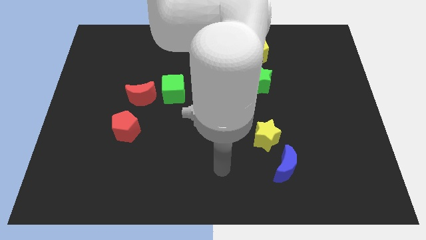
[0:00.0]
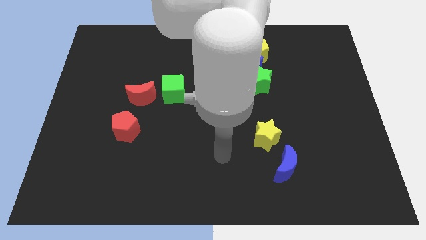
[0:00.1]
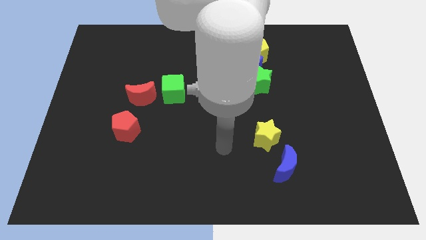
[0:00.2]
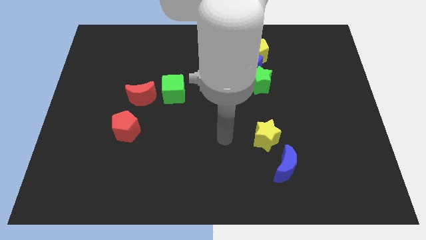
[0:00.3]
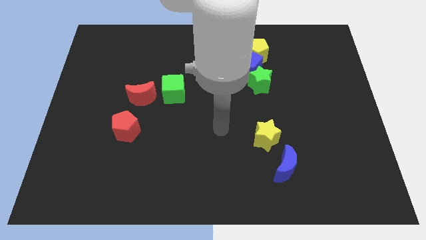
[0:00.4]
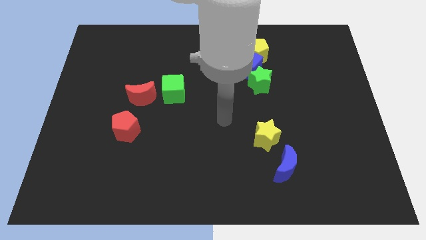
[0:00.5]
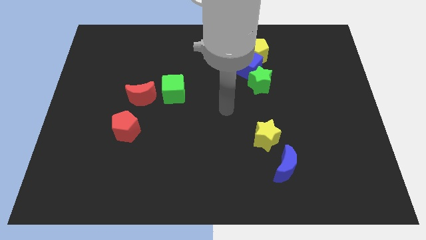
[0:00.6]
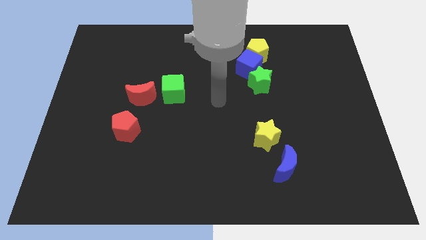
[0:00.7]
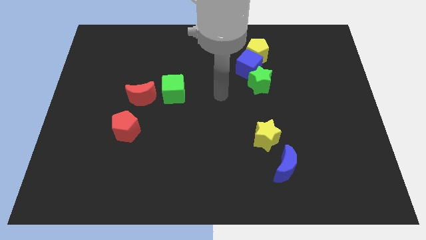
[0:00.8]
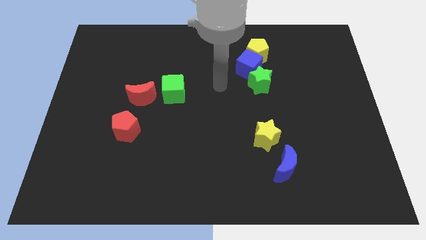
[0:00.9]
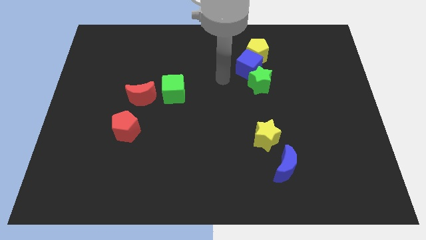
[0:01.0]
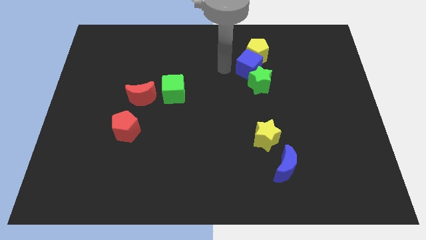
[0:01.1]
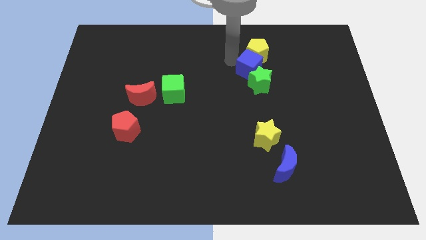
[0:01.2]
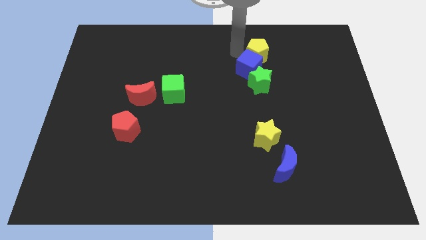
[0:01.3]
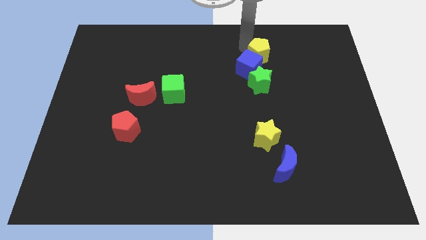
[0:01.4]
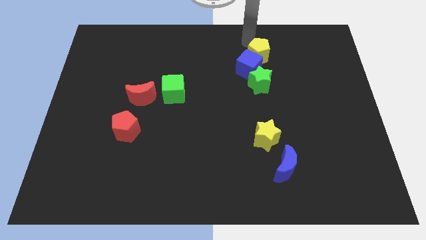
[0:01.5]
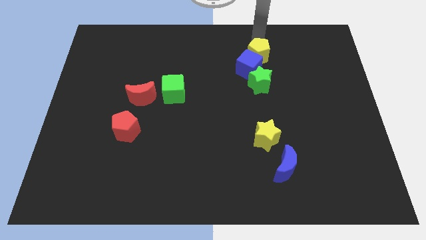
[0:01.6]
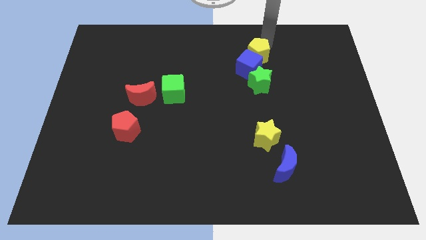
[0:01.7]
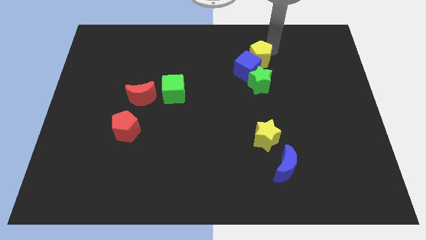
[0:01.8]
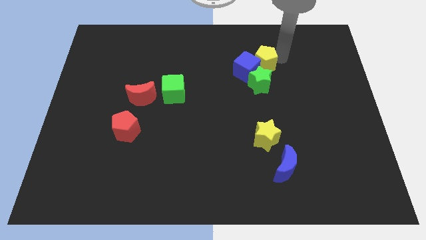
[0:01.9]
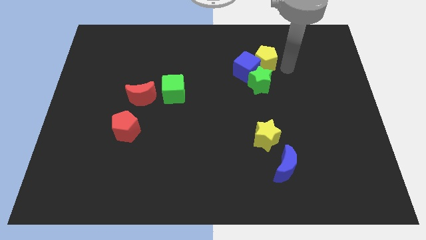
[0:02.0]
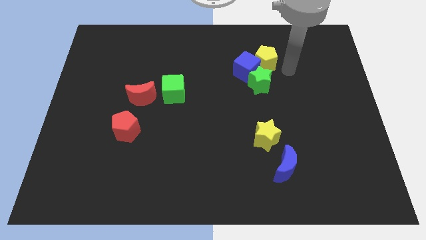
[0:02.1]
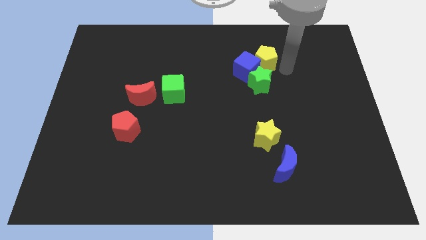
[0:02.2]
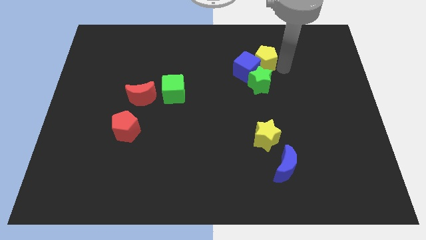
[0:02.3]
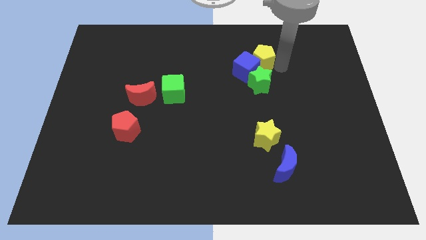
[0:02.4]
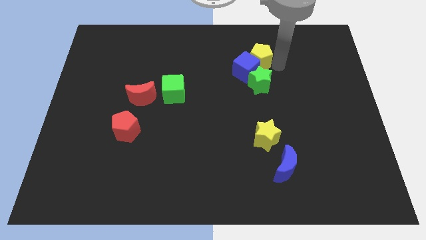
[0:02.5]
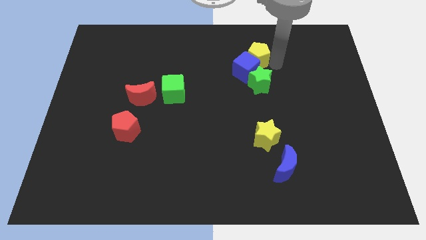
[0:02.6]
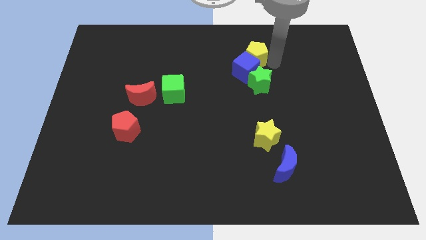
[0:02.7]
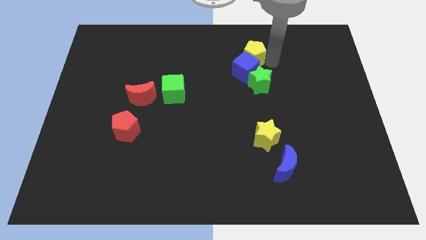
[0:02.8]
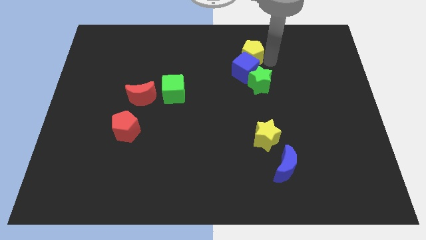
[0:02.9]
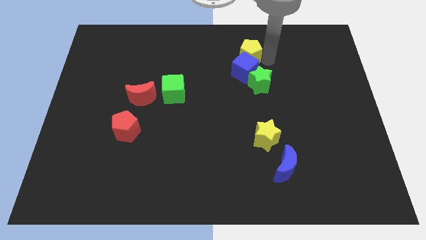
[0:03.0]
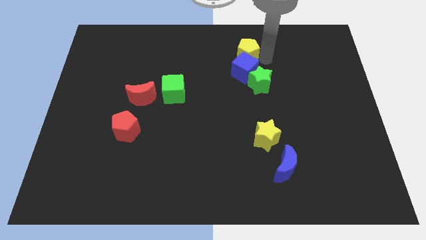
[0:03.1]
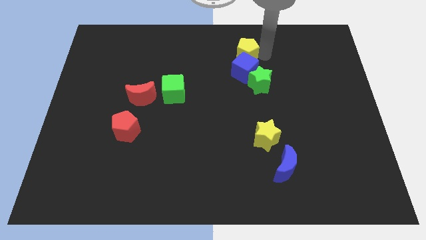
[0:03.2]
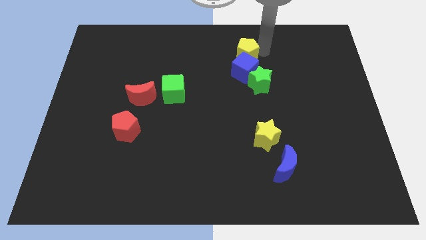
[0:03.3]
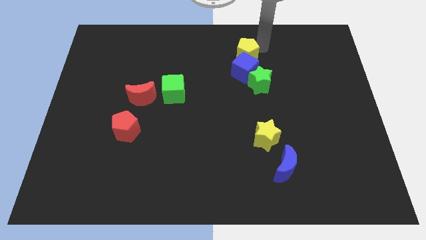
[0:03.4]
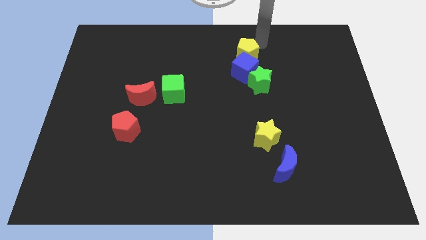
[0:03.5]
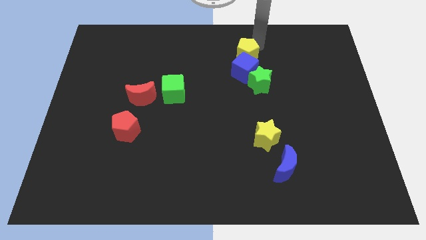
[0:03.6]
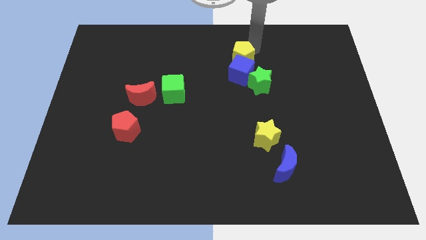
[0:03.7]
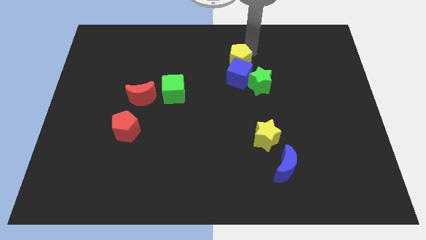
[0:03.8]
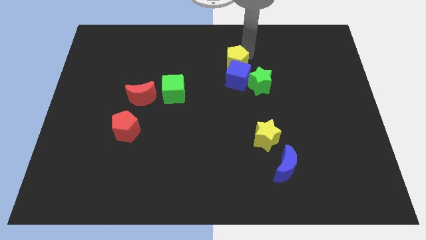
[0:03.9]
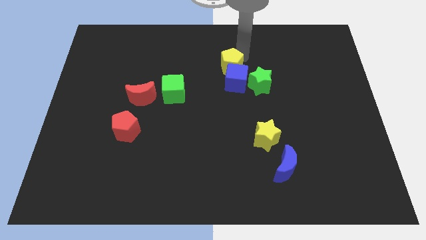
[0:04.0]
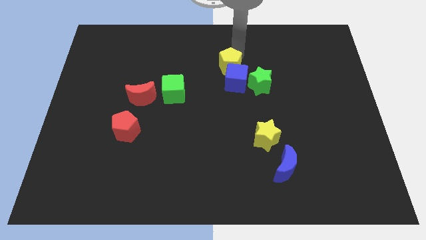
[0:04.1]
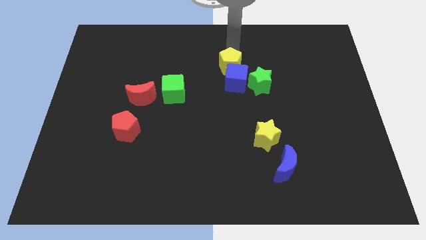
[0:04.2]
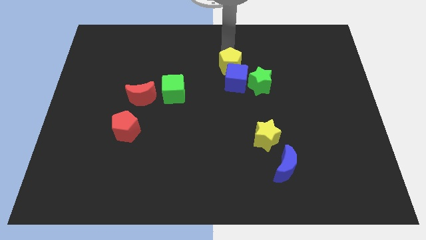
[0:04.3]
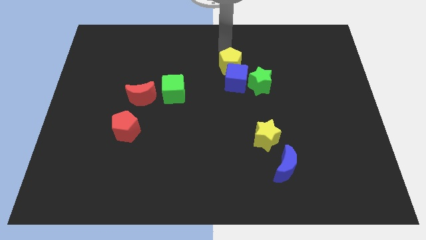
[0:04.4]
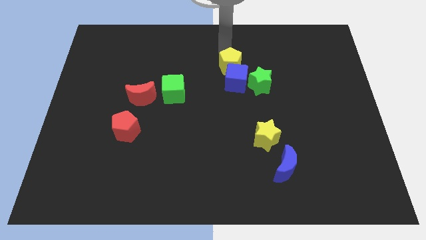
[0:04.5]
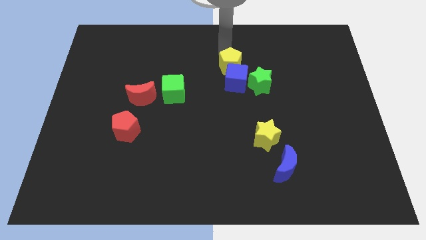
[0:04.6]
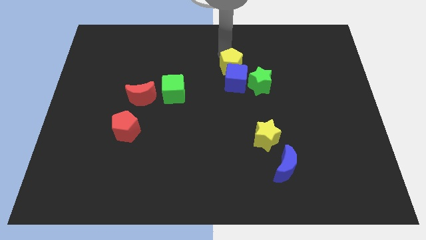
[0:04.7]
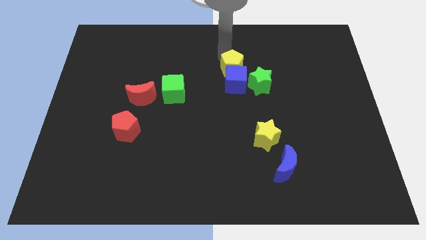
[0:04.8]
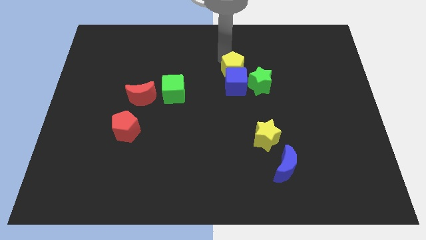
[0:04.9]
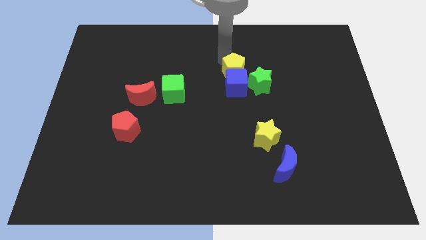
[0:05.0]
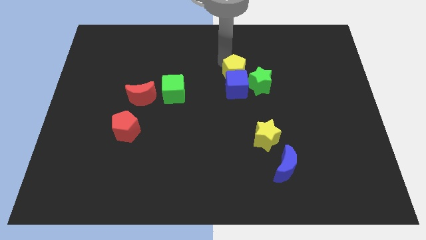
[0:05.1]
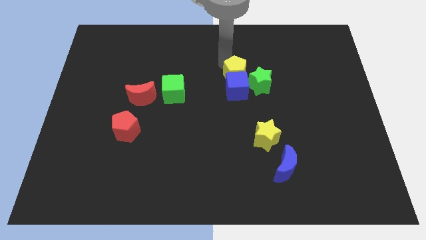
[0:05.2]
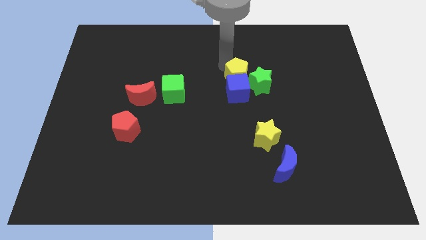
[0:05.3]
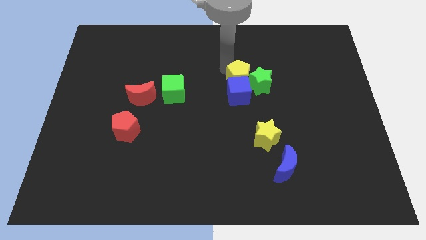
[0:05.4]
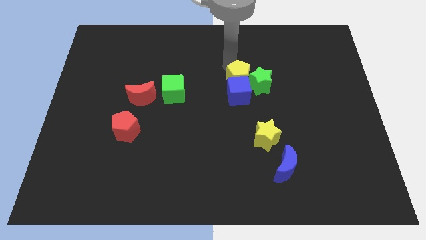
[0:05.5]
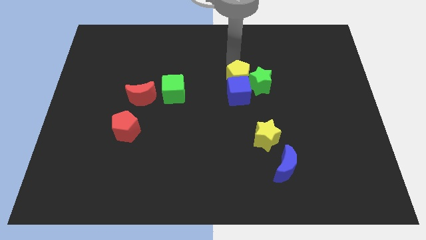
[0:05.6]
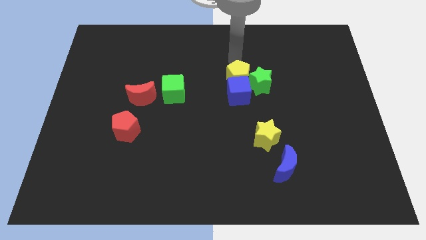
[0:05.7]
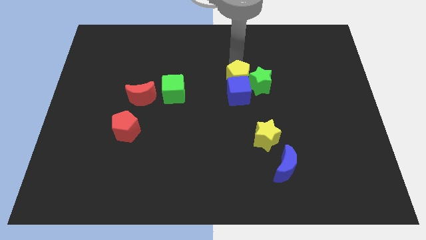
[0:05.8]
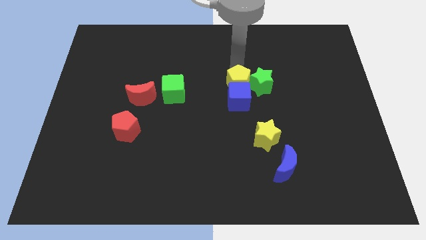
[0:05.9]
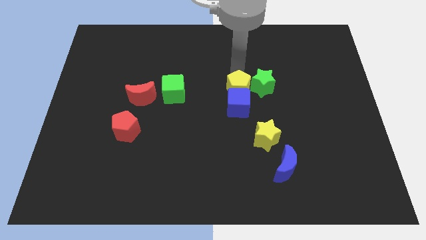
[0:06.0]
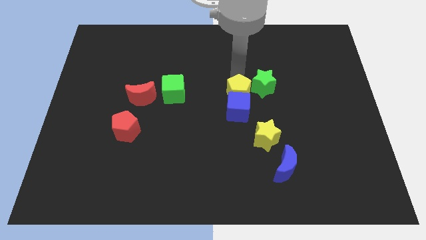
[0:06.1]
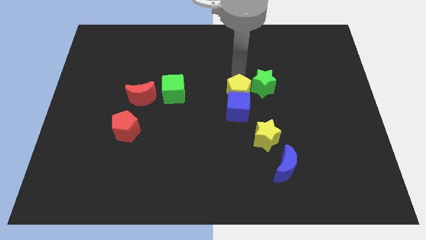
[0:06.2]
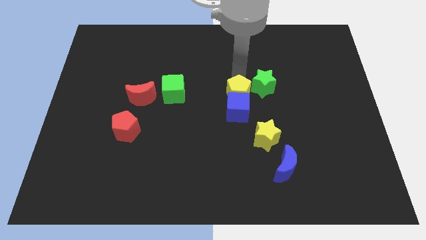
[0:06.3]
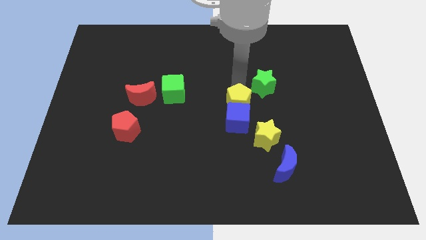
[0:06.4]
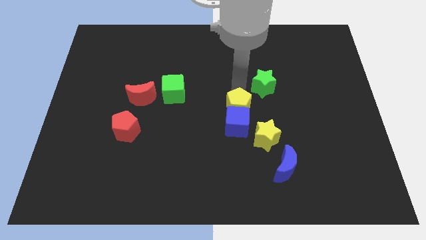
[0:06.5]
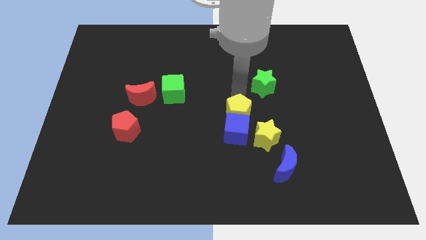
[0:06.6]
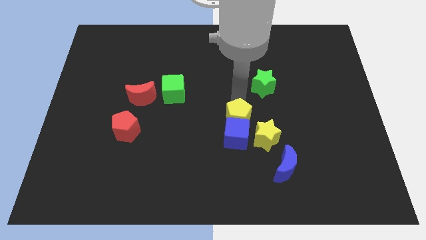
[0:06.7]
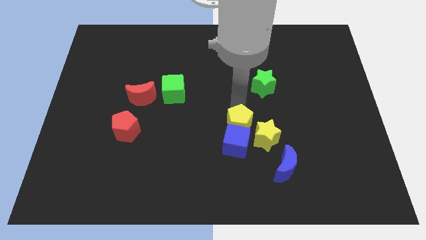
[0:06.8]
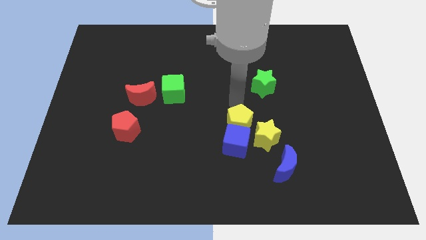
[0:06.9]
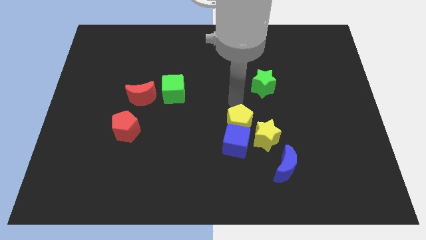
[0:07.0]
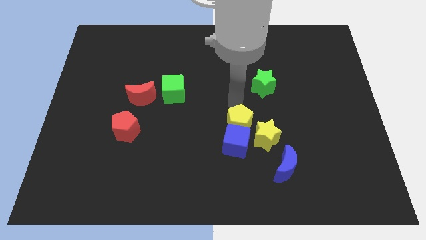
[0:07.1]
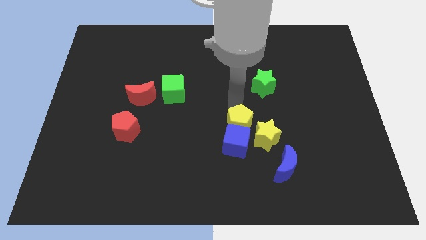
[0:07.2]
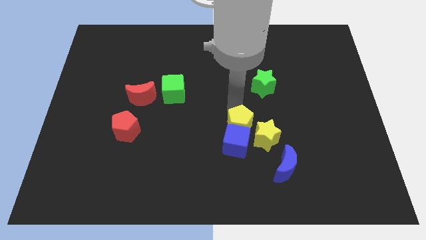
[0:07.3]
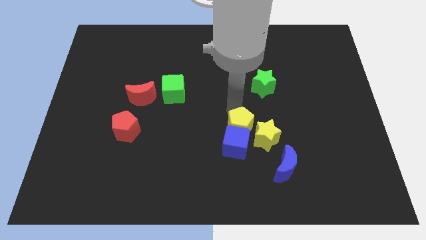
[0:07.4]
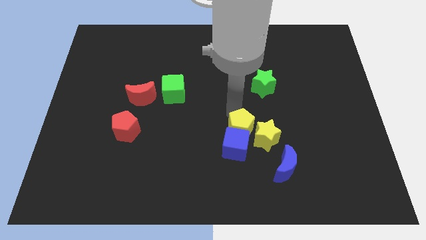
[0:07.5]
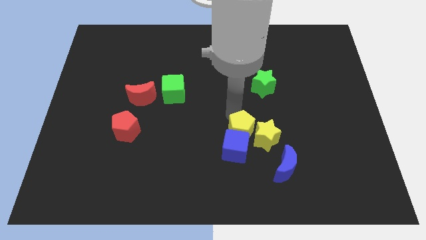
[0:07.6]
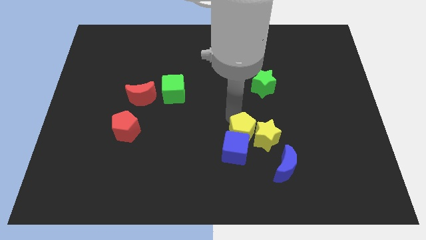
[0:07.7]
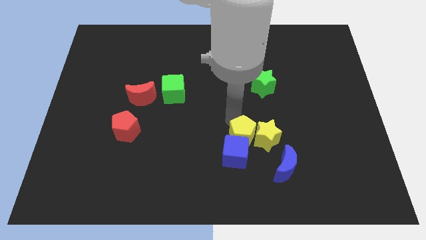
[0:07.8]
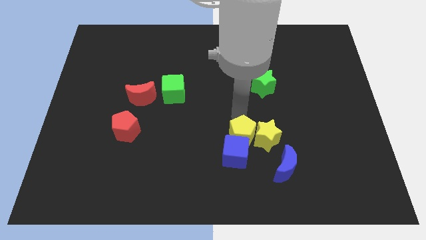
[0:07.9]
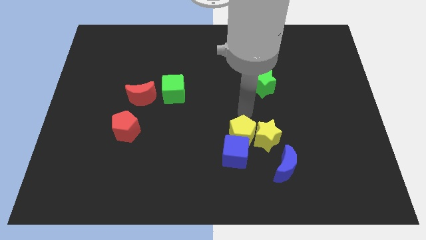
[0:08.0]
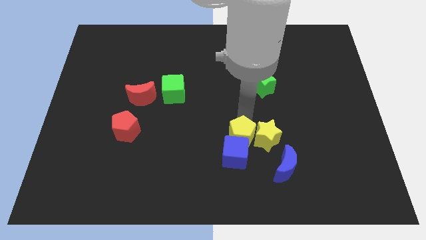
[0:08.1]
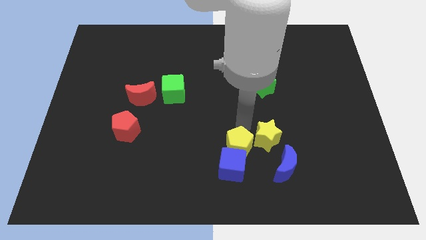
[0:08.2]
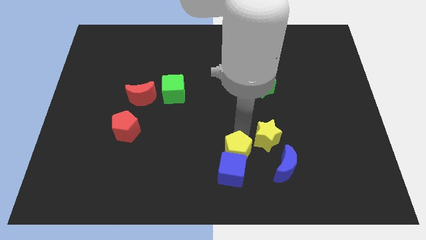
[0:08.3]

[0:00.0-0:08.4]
slide the yellow pentagon to the left side of the blue moon
